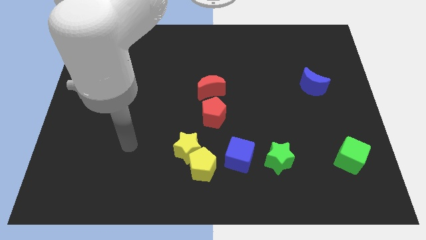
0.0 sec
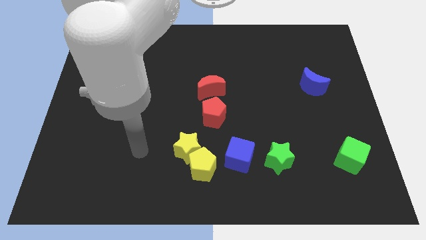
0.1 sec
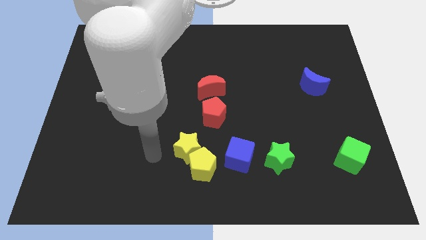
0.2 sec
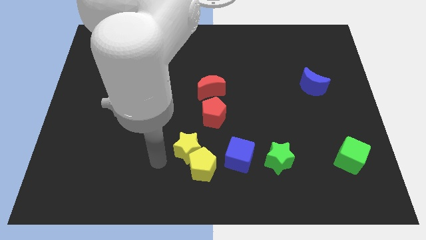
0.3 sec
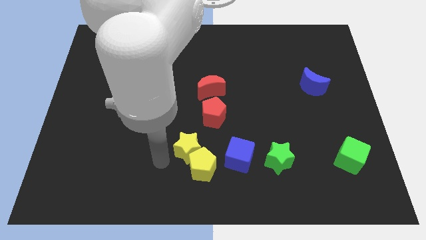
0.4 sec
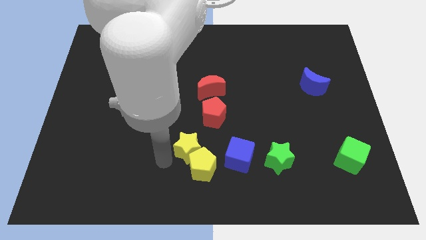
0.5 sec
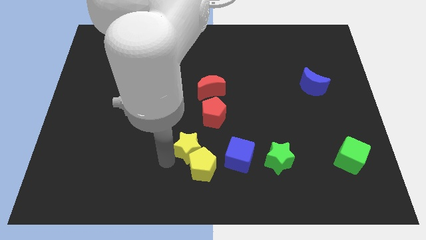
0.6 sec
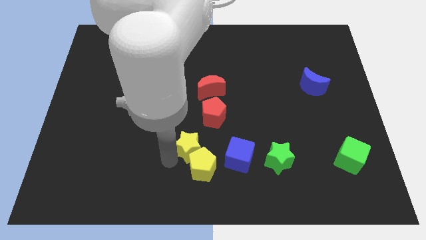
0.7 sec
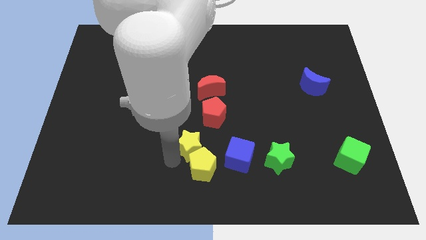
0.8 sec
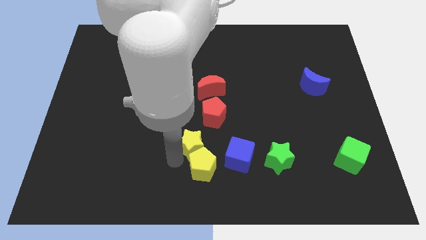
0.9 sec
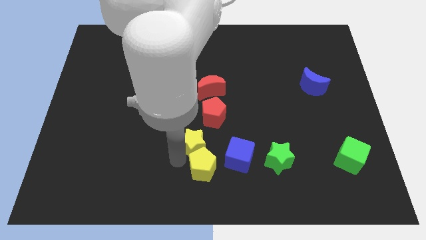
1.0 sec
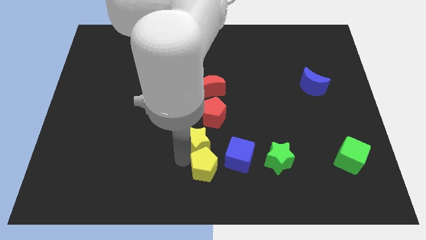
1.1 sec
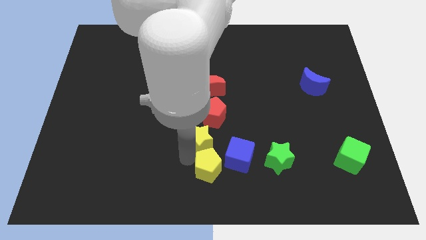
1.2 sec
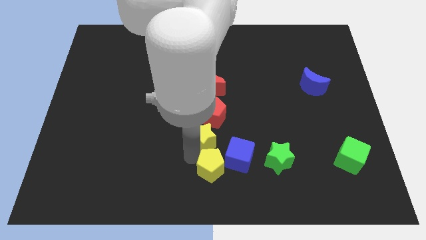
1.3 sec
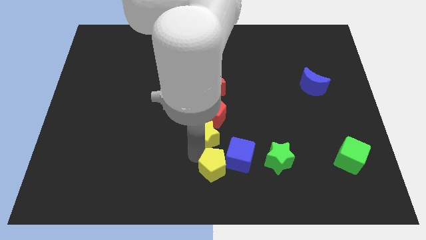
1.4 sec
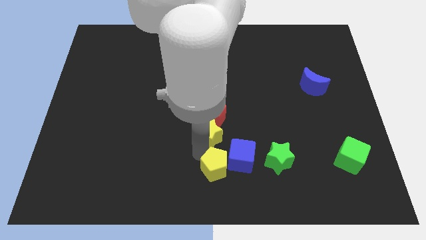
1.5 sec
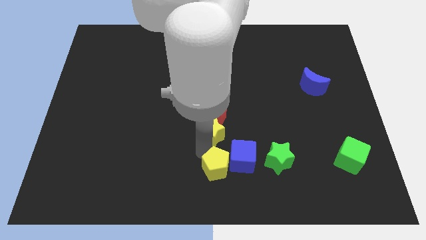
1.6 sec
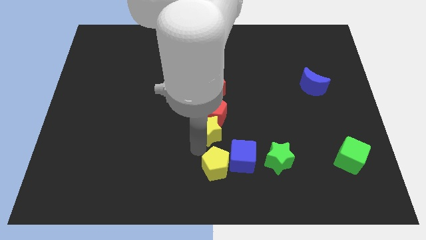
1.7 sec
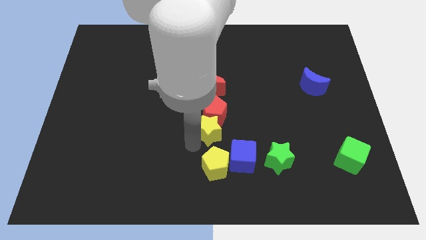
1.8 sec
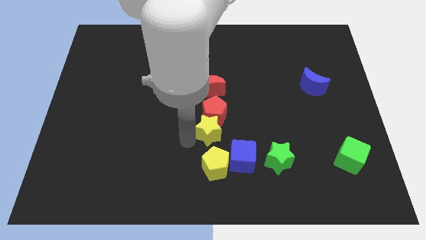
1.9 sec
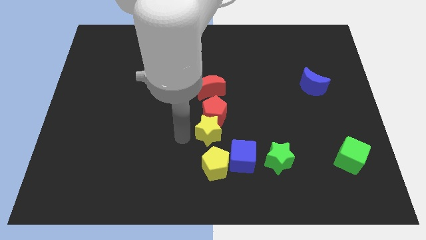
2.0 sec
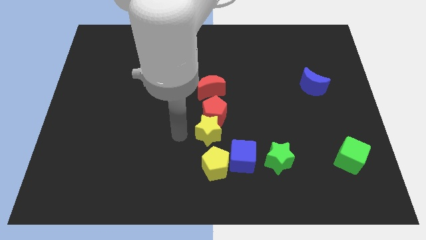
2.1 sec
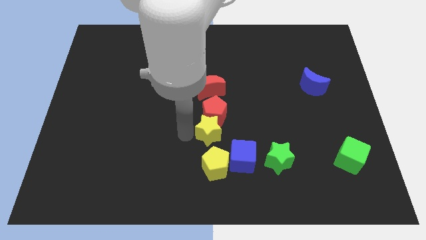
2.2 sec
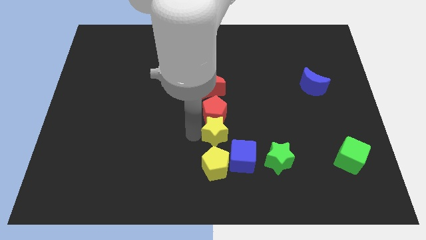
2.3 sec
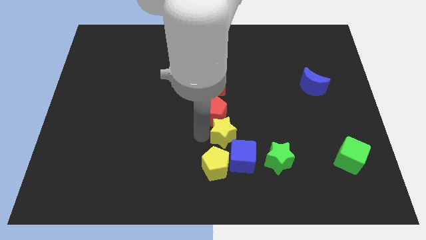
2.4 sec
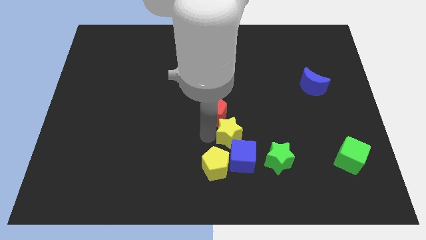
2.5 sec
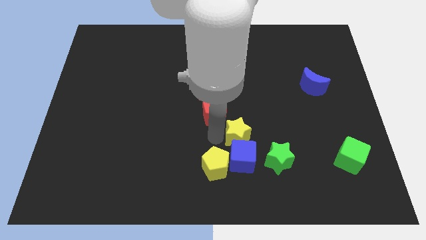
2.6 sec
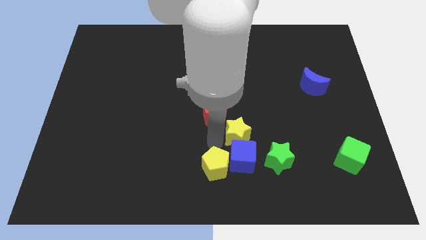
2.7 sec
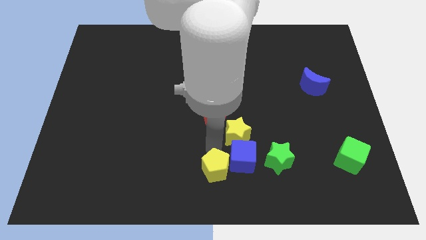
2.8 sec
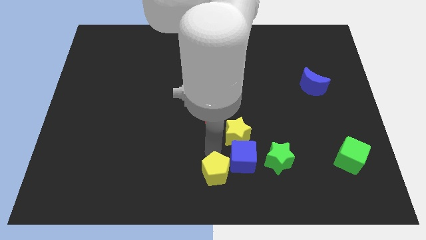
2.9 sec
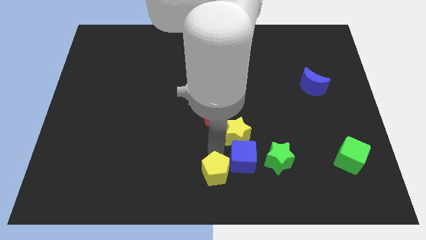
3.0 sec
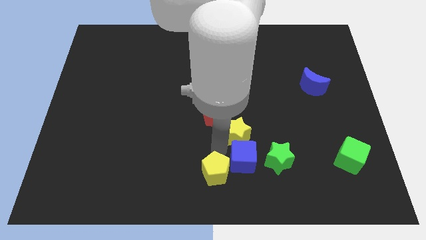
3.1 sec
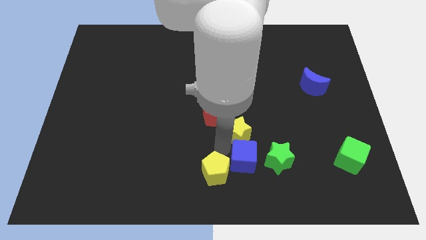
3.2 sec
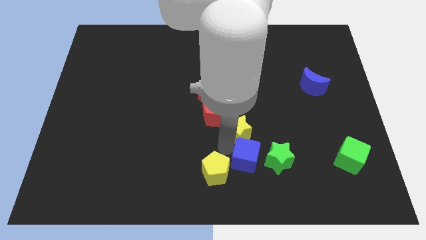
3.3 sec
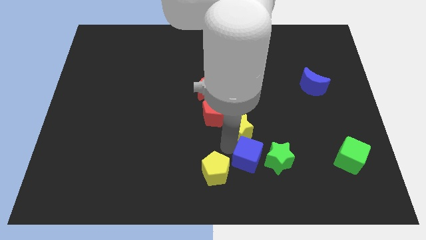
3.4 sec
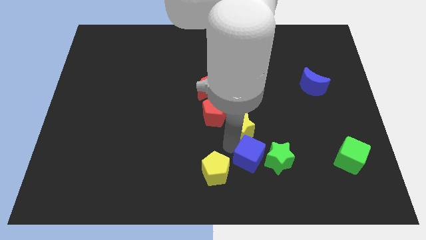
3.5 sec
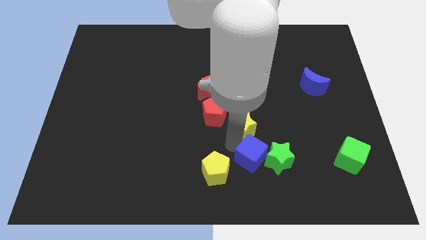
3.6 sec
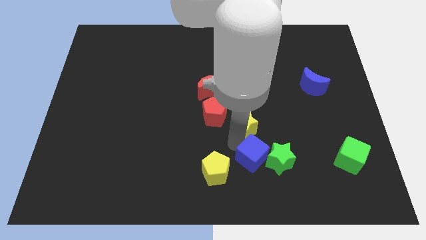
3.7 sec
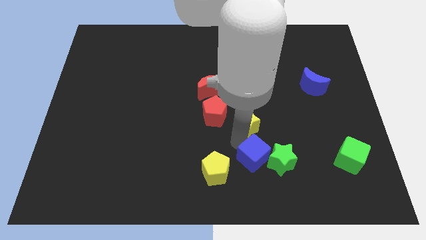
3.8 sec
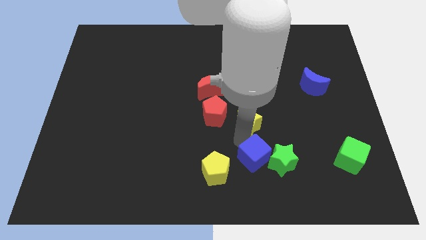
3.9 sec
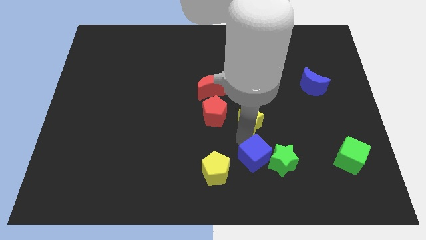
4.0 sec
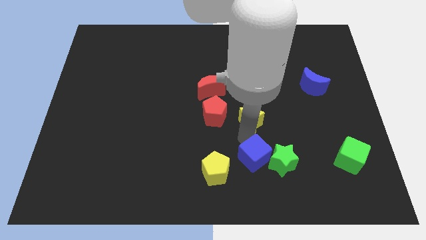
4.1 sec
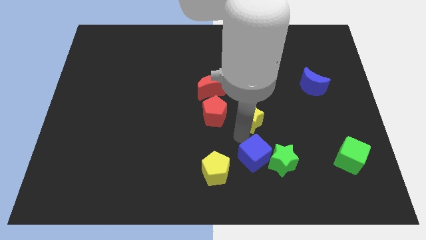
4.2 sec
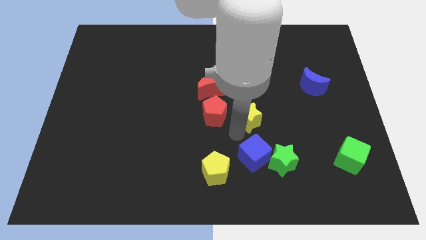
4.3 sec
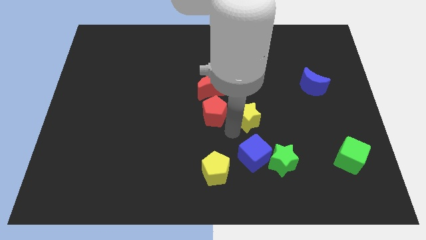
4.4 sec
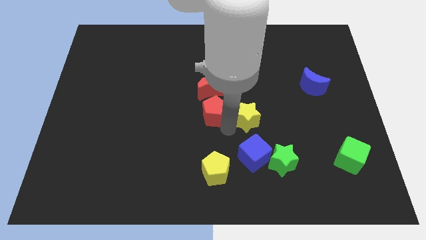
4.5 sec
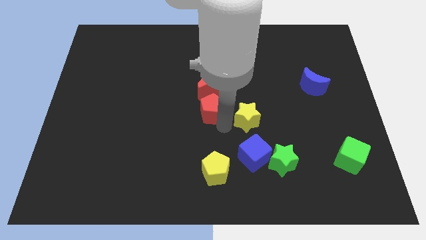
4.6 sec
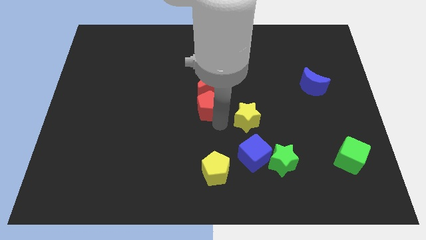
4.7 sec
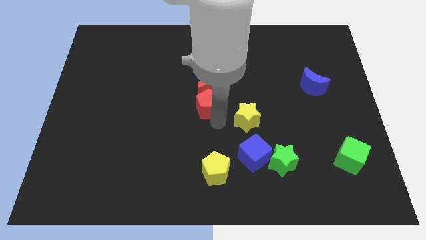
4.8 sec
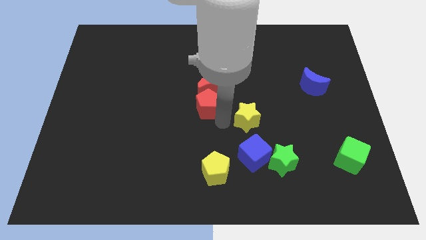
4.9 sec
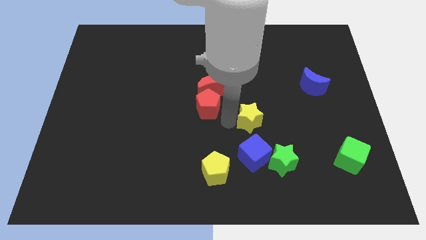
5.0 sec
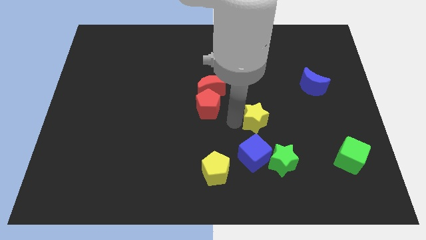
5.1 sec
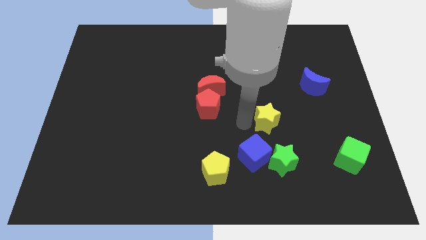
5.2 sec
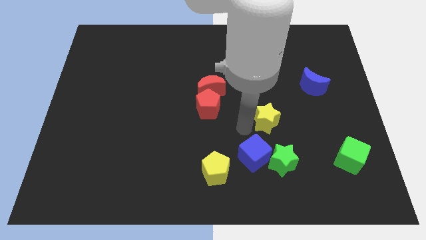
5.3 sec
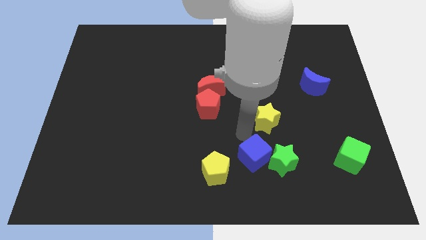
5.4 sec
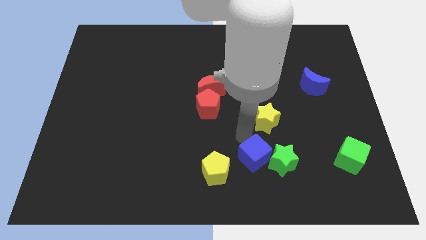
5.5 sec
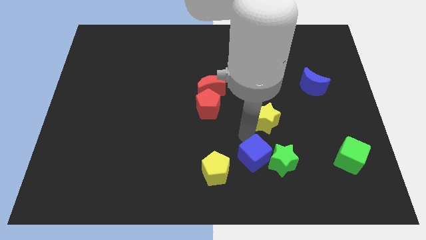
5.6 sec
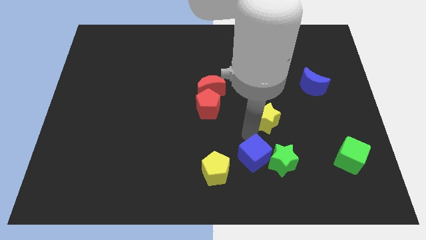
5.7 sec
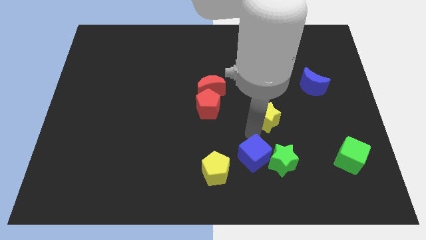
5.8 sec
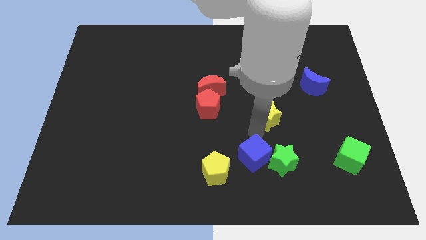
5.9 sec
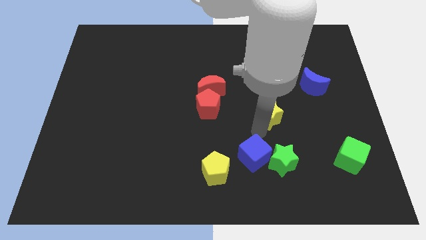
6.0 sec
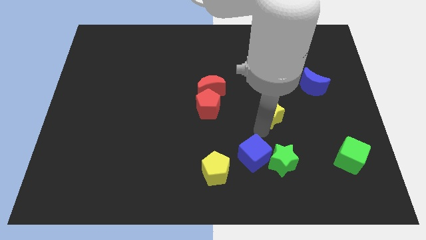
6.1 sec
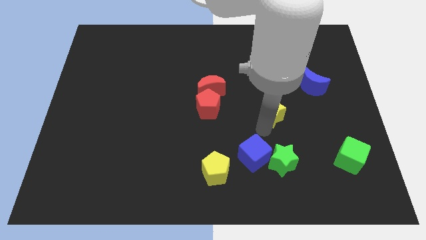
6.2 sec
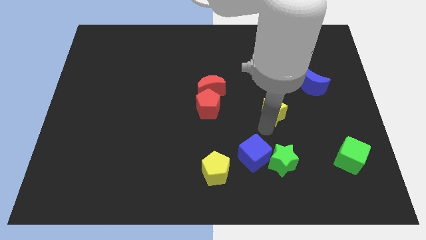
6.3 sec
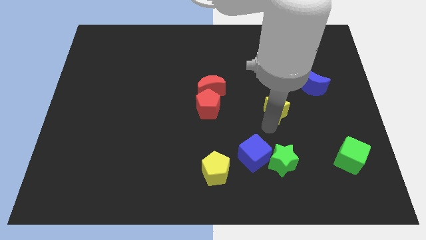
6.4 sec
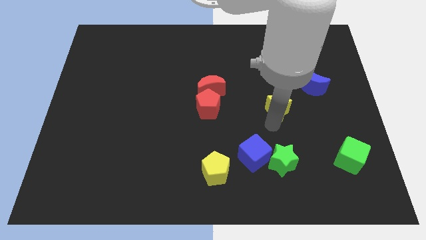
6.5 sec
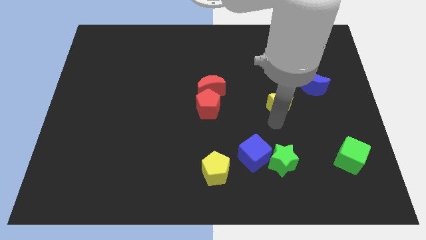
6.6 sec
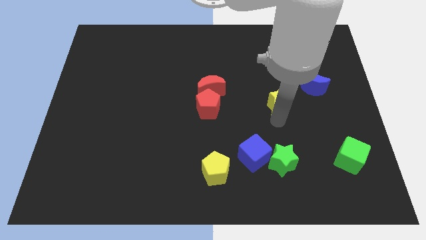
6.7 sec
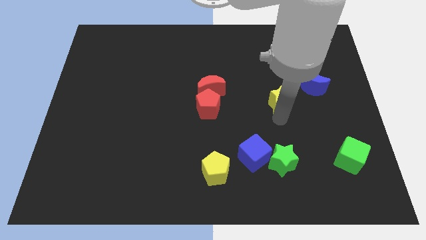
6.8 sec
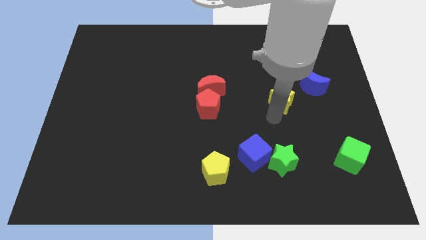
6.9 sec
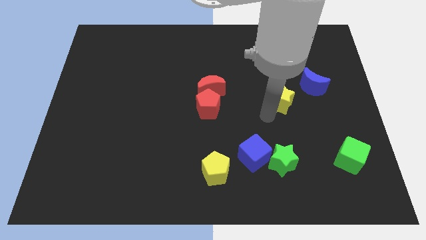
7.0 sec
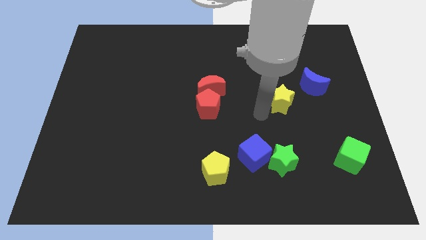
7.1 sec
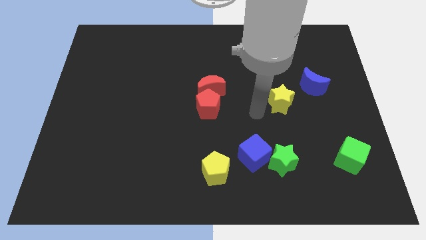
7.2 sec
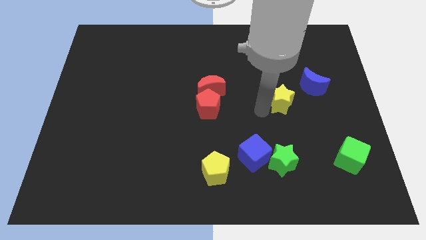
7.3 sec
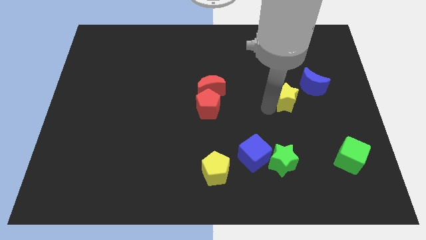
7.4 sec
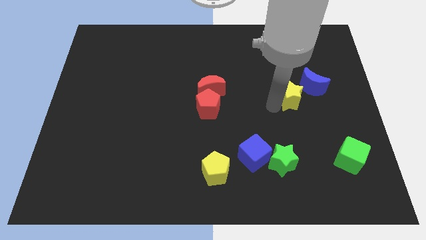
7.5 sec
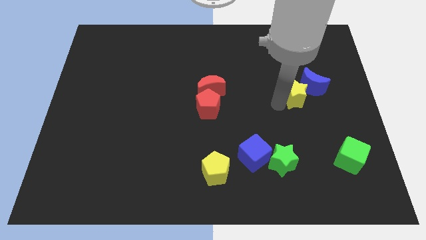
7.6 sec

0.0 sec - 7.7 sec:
slide the yellow star close to the blue moon
